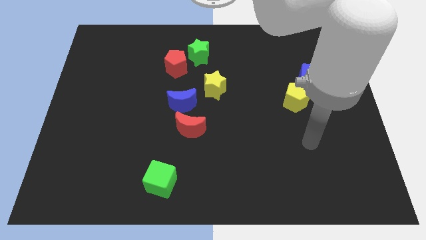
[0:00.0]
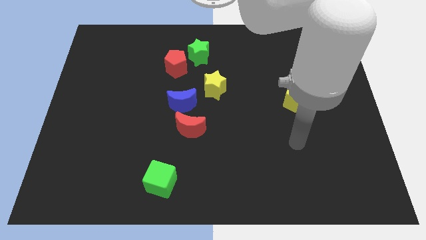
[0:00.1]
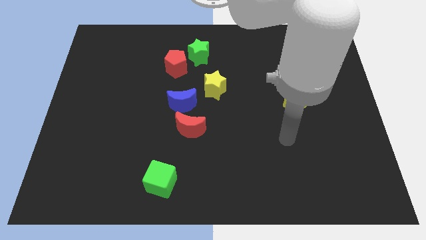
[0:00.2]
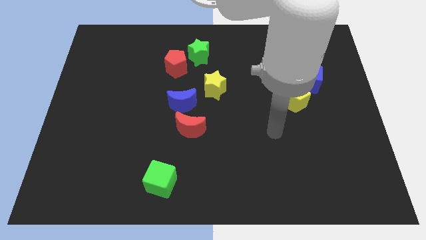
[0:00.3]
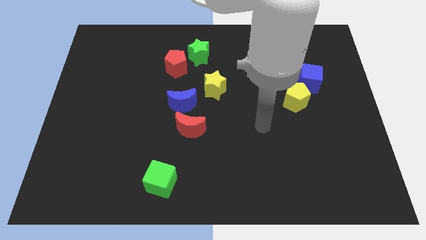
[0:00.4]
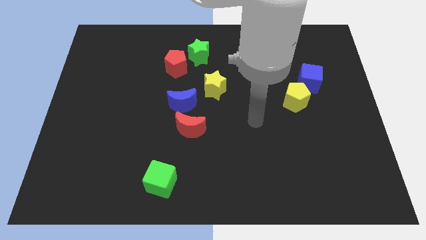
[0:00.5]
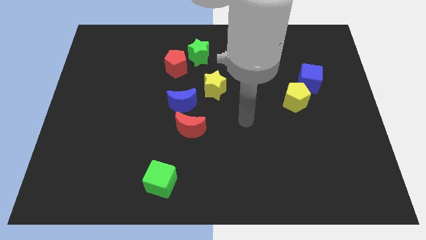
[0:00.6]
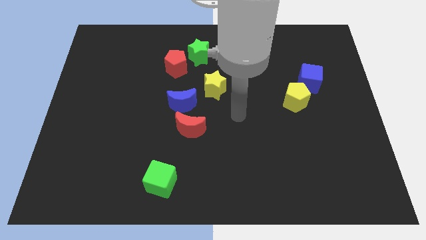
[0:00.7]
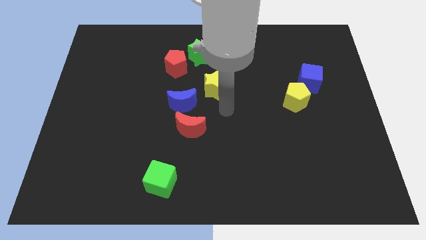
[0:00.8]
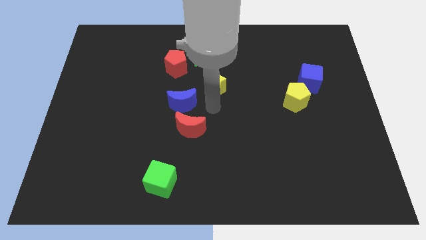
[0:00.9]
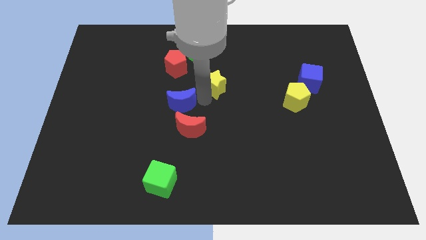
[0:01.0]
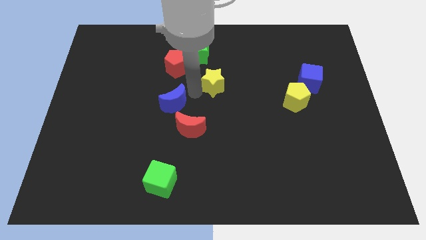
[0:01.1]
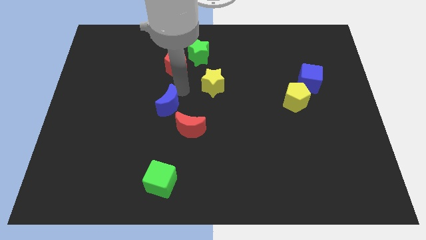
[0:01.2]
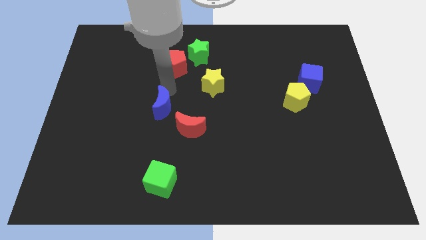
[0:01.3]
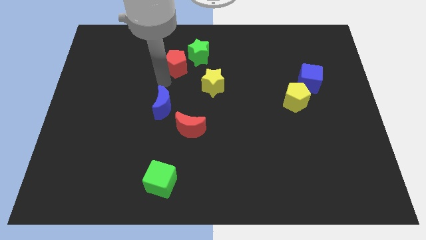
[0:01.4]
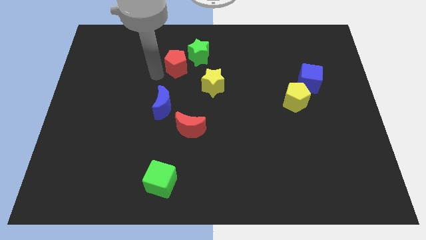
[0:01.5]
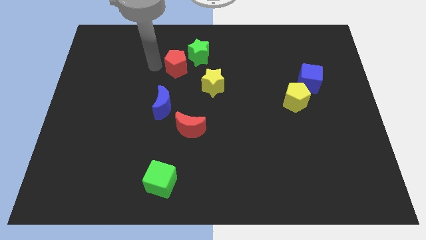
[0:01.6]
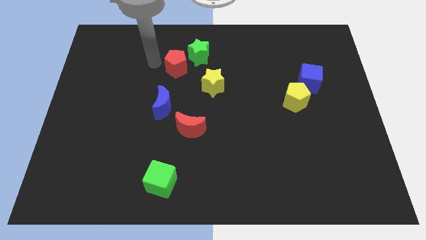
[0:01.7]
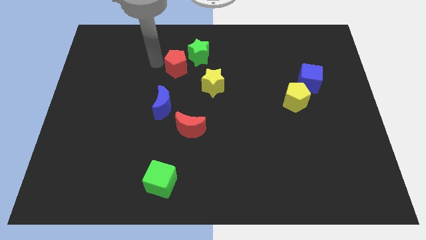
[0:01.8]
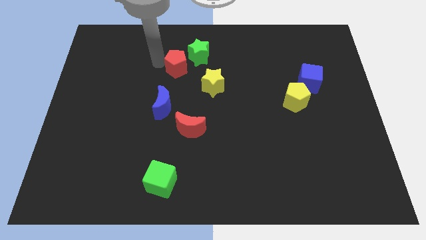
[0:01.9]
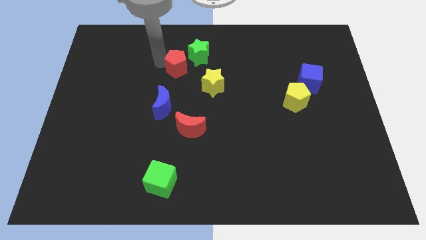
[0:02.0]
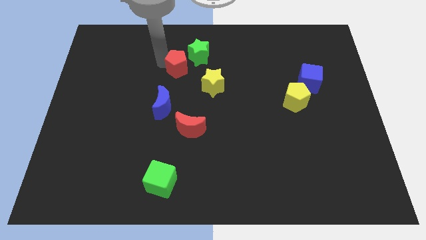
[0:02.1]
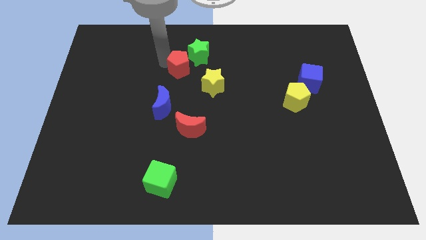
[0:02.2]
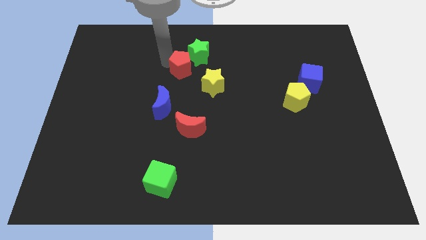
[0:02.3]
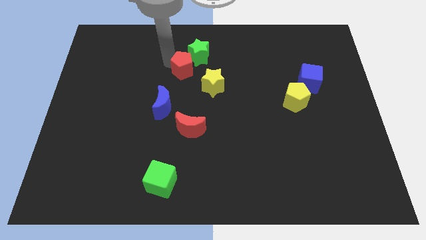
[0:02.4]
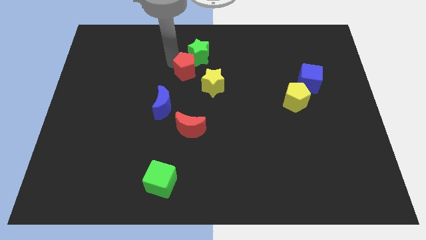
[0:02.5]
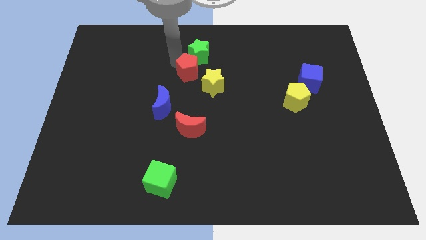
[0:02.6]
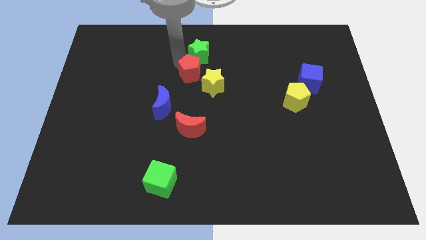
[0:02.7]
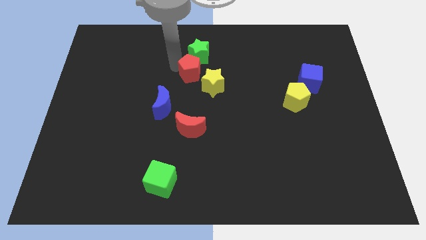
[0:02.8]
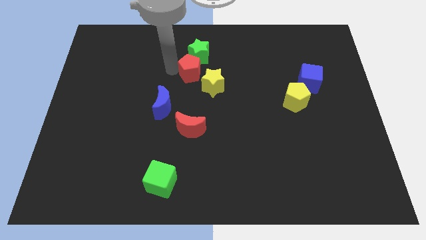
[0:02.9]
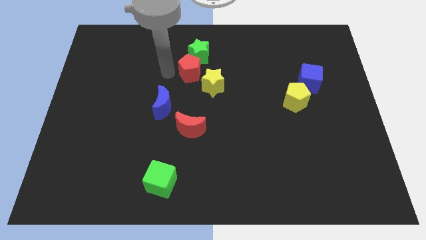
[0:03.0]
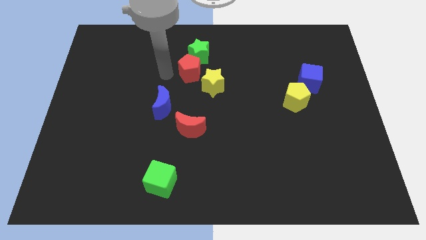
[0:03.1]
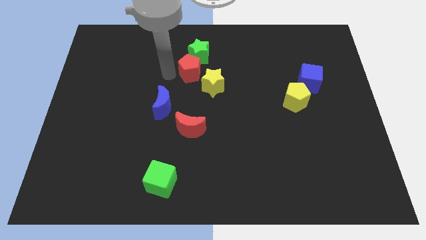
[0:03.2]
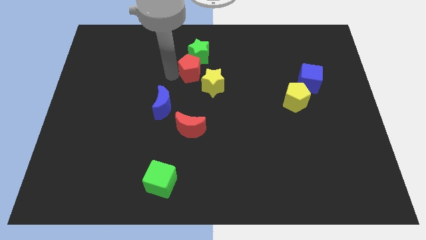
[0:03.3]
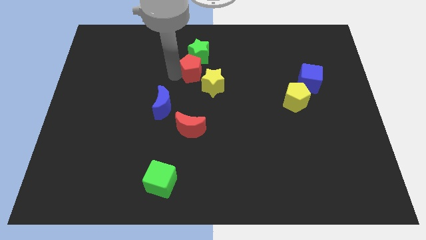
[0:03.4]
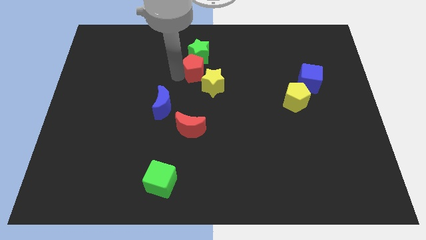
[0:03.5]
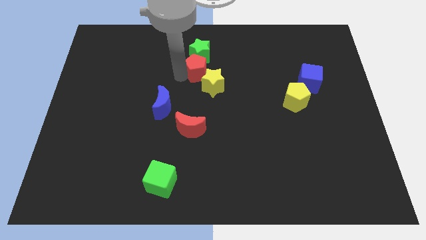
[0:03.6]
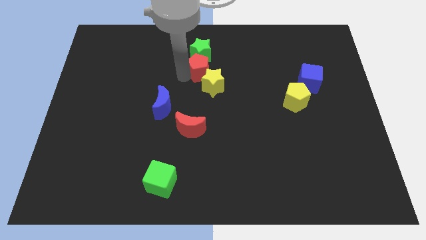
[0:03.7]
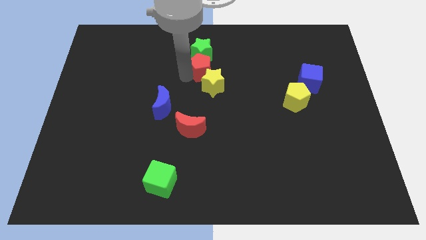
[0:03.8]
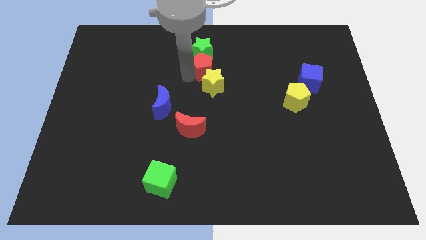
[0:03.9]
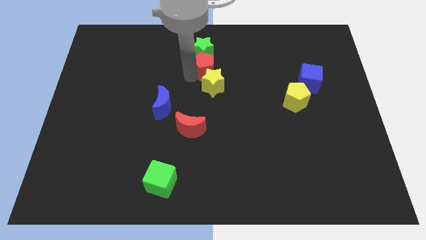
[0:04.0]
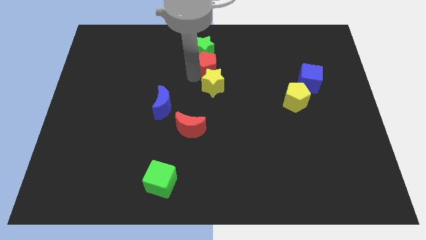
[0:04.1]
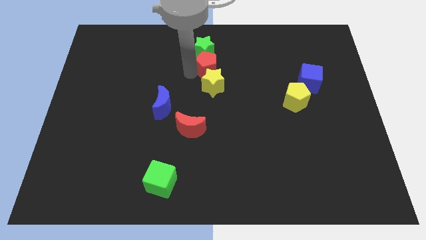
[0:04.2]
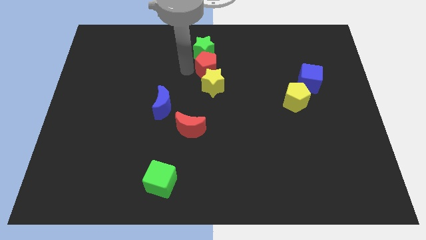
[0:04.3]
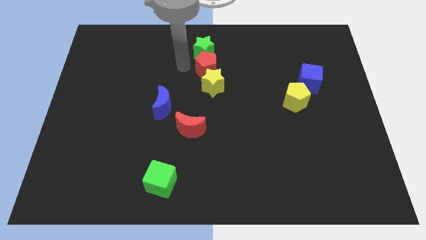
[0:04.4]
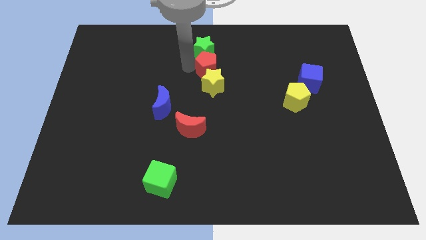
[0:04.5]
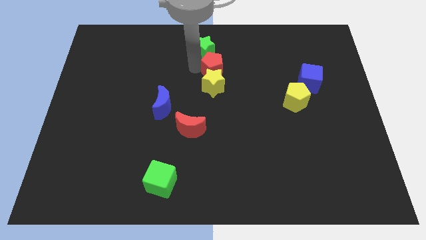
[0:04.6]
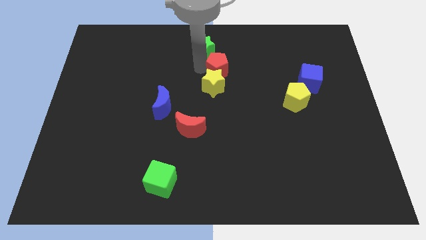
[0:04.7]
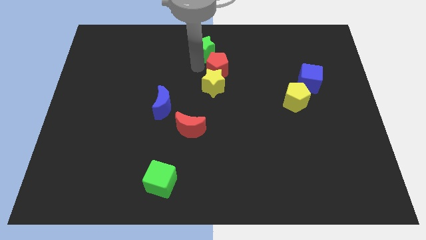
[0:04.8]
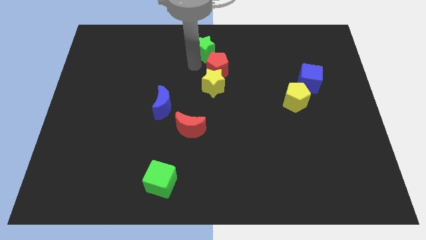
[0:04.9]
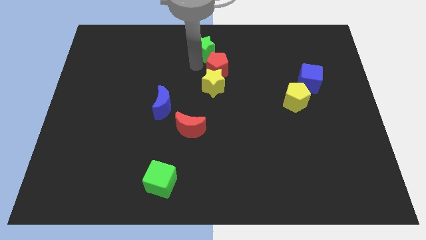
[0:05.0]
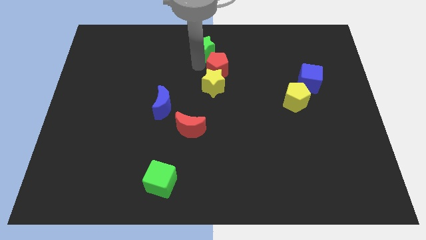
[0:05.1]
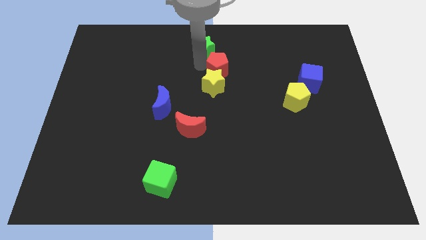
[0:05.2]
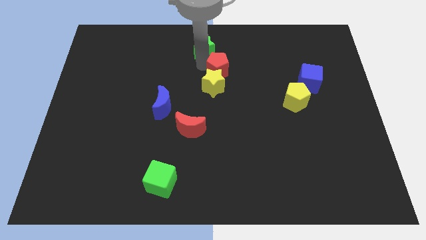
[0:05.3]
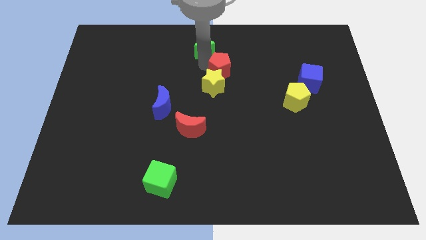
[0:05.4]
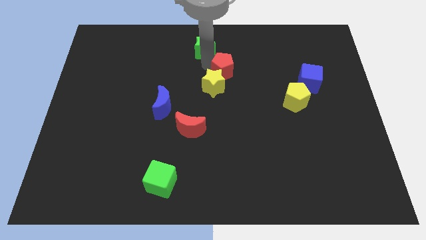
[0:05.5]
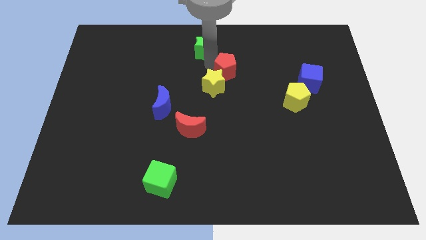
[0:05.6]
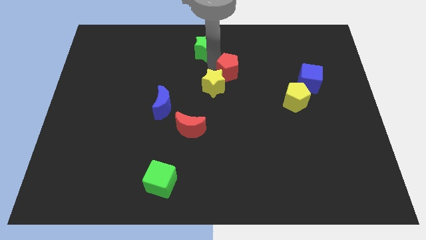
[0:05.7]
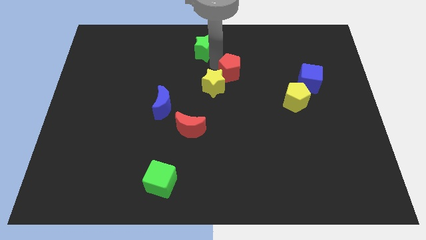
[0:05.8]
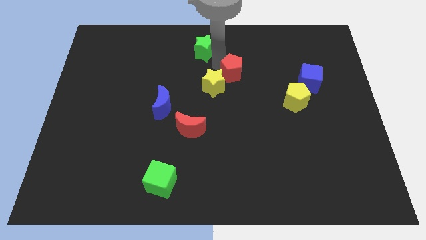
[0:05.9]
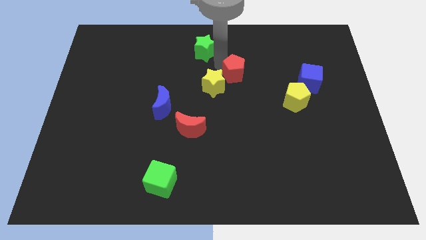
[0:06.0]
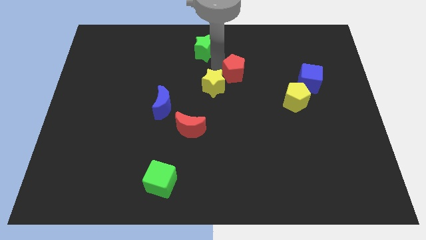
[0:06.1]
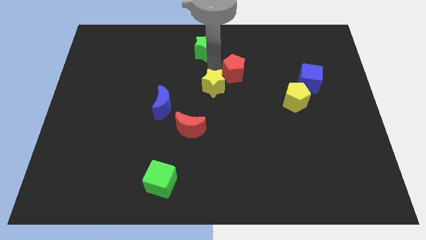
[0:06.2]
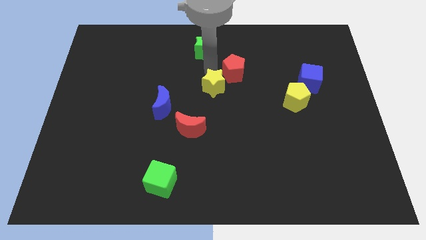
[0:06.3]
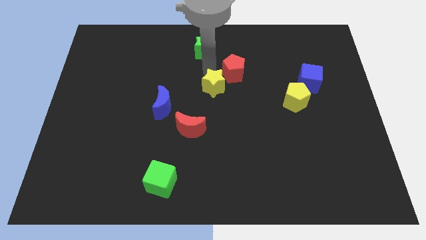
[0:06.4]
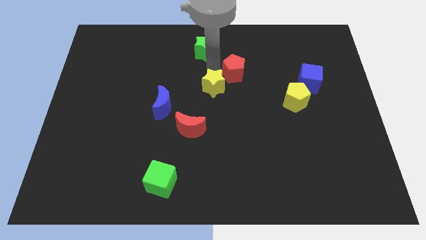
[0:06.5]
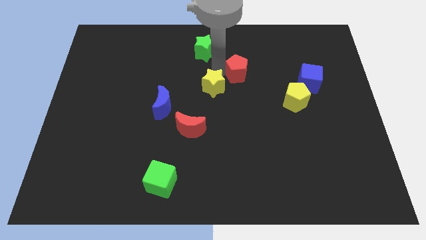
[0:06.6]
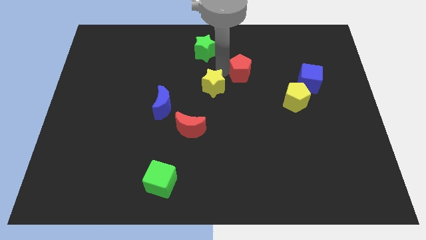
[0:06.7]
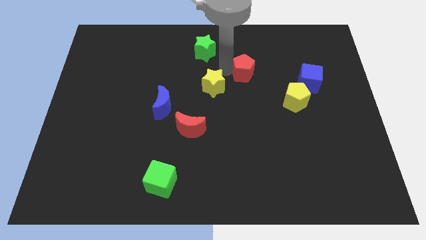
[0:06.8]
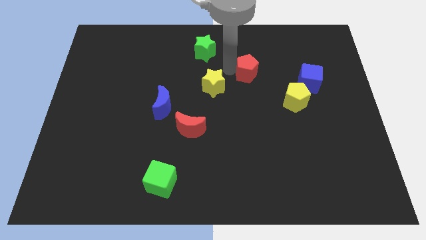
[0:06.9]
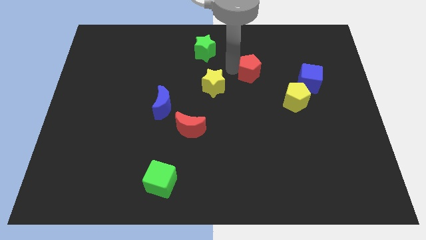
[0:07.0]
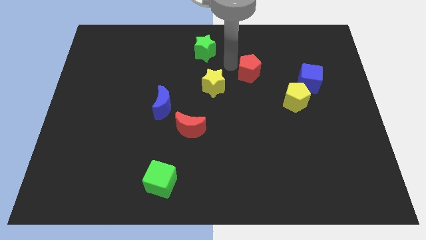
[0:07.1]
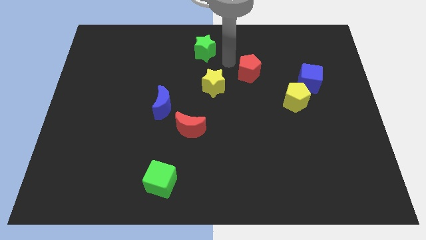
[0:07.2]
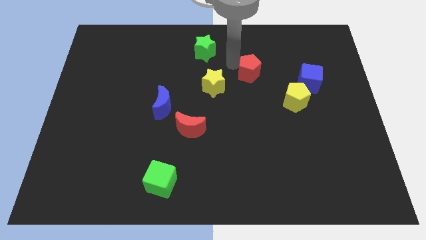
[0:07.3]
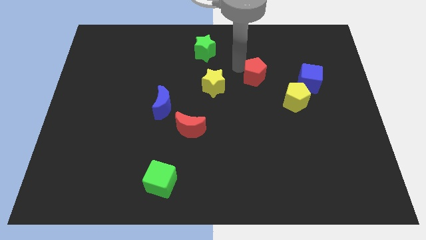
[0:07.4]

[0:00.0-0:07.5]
push the red pentagon to the top left side of the yellow pentagon
